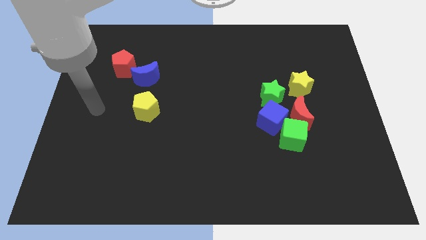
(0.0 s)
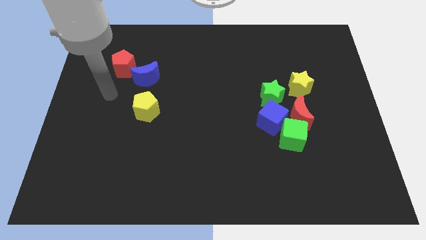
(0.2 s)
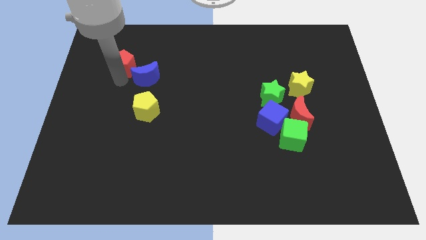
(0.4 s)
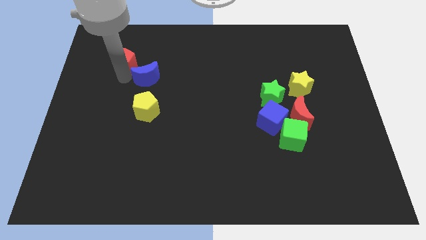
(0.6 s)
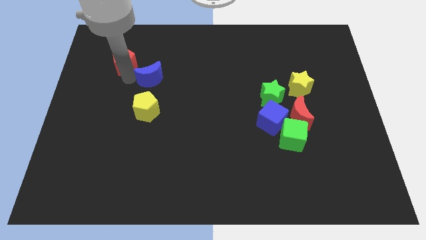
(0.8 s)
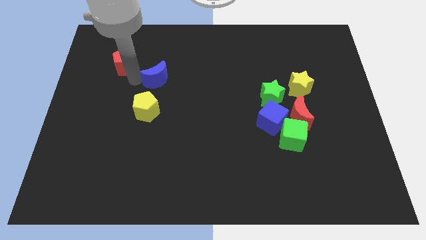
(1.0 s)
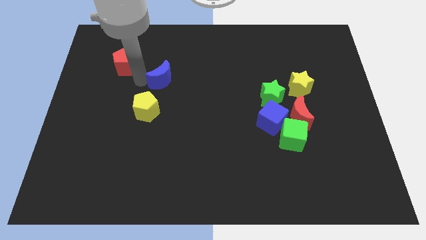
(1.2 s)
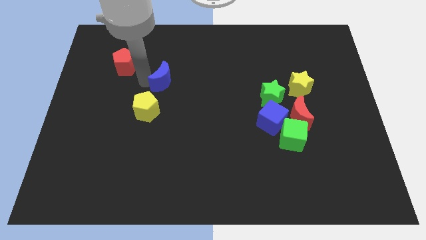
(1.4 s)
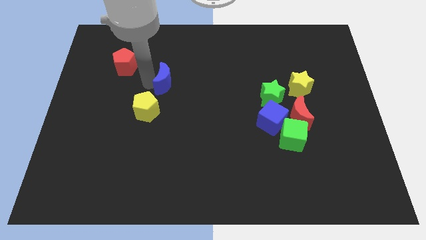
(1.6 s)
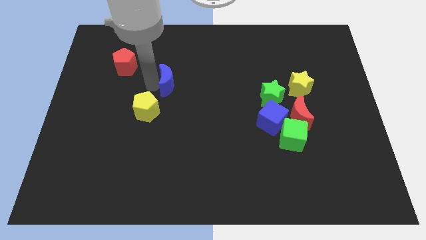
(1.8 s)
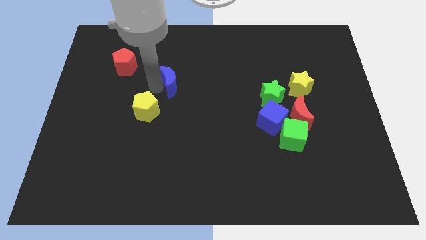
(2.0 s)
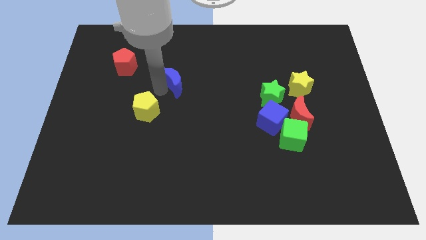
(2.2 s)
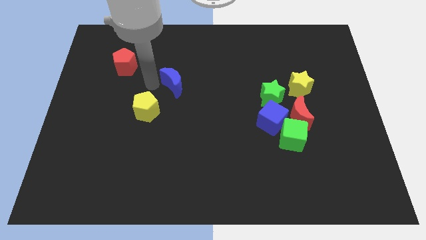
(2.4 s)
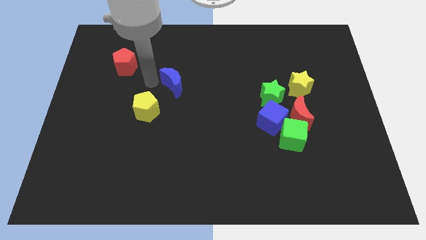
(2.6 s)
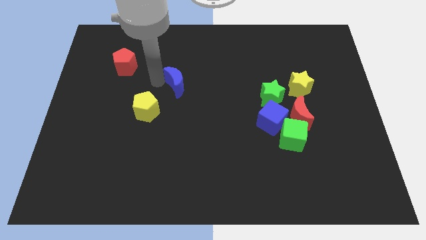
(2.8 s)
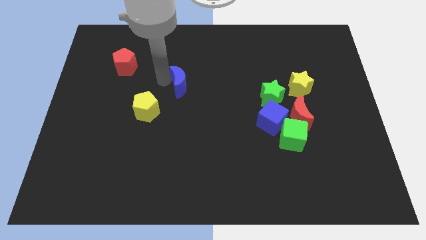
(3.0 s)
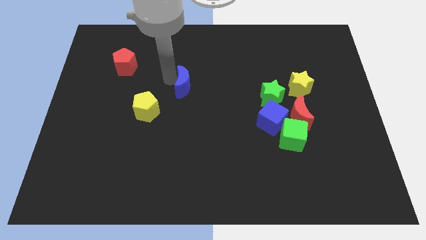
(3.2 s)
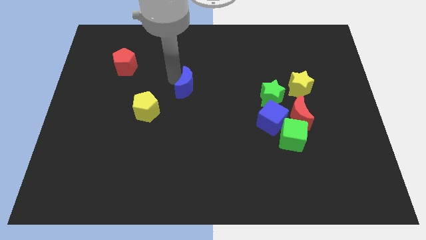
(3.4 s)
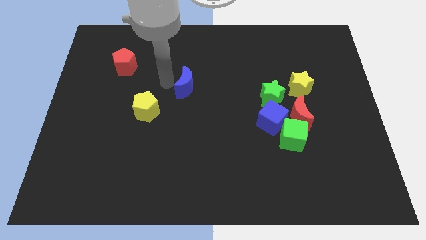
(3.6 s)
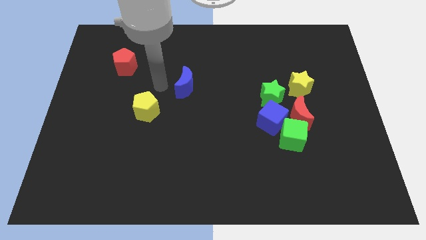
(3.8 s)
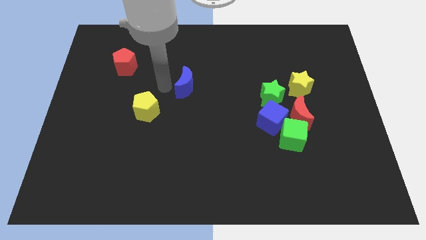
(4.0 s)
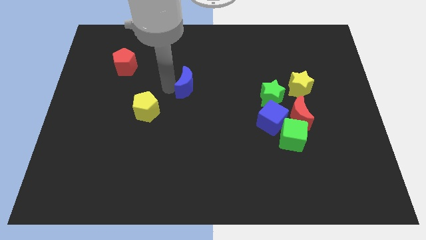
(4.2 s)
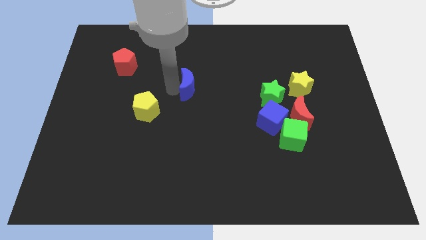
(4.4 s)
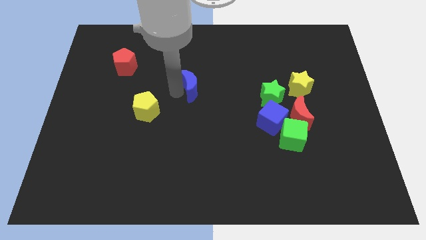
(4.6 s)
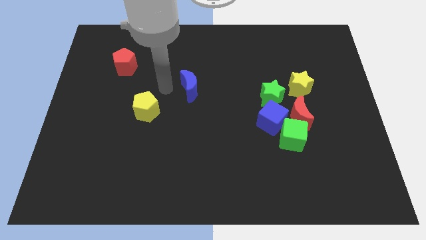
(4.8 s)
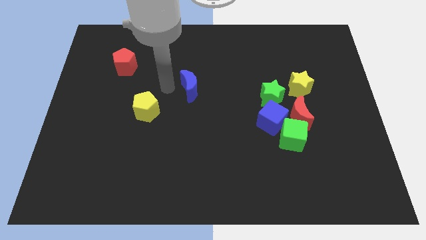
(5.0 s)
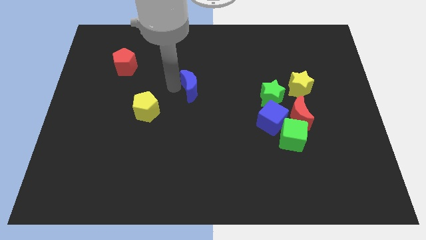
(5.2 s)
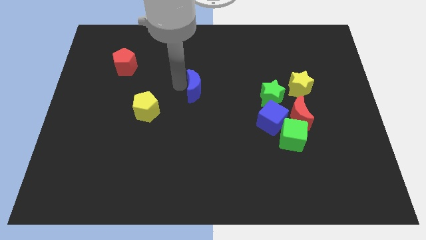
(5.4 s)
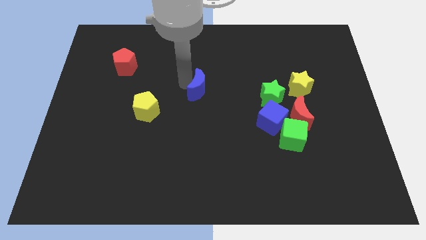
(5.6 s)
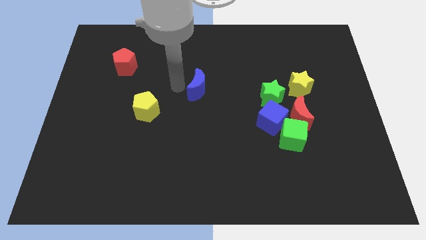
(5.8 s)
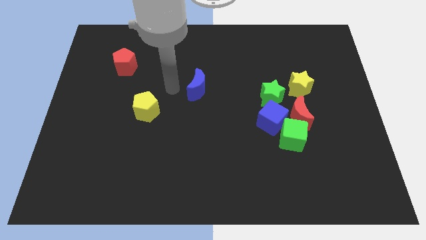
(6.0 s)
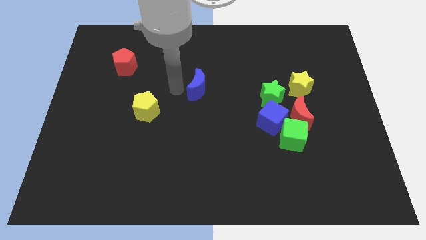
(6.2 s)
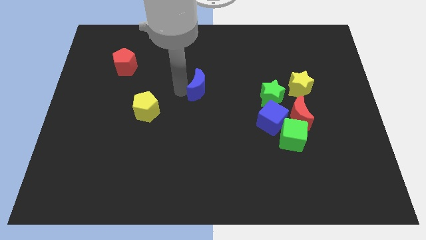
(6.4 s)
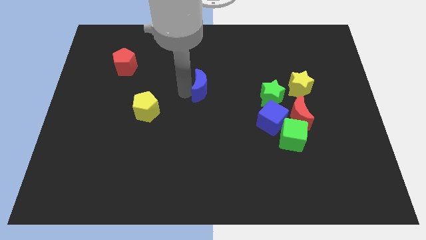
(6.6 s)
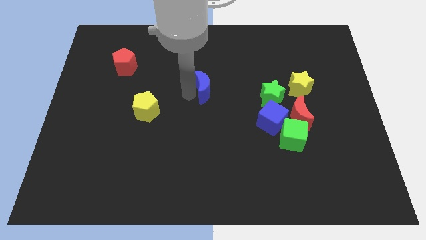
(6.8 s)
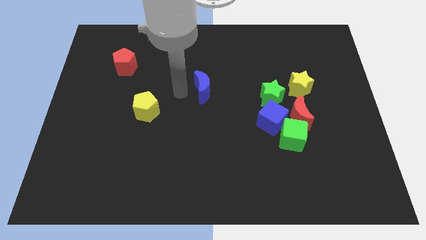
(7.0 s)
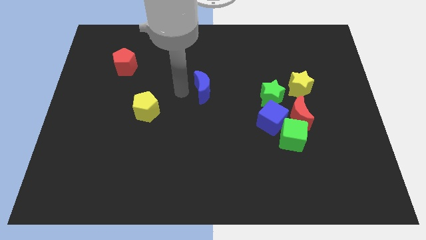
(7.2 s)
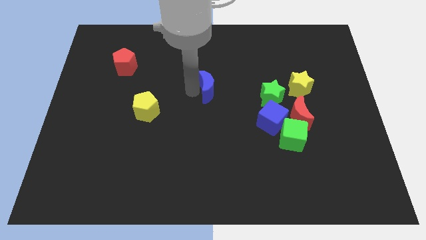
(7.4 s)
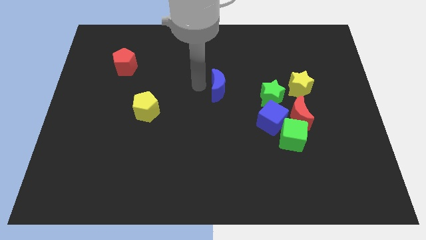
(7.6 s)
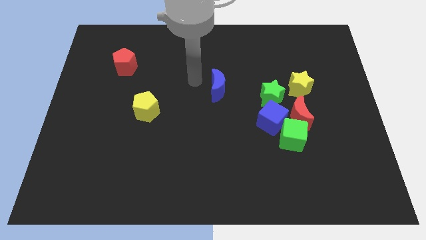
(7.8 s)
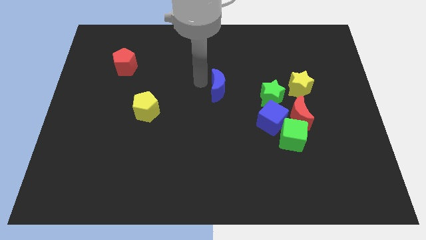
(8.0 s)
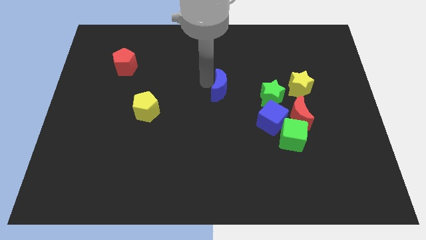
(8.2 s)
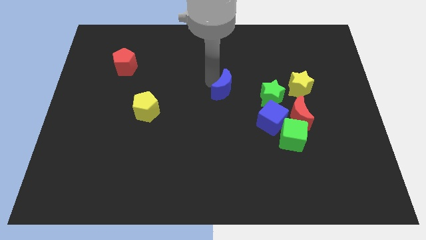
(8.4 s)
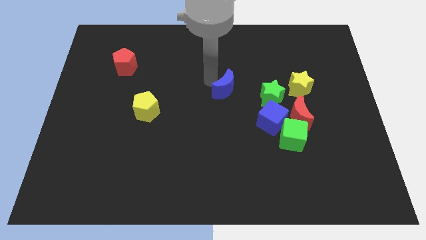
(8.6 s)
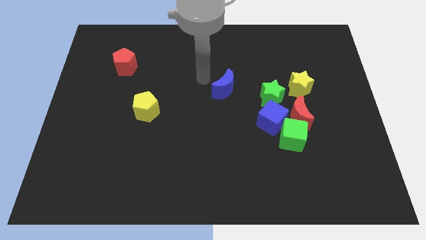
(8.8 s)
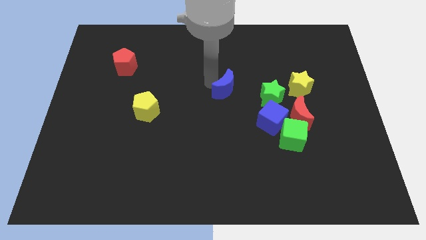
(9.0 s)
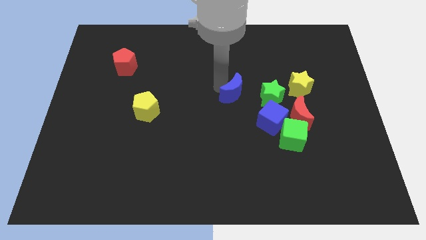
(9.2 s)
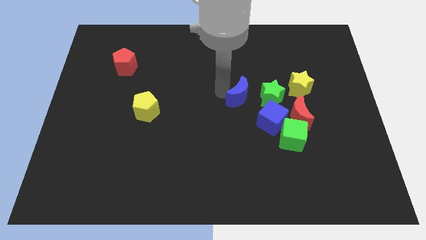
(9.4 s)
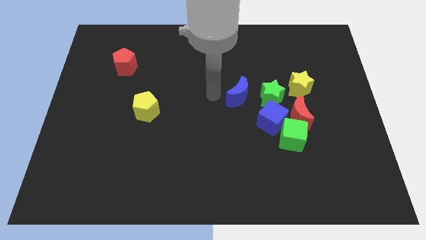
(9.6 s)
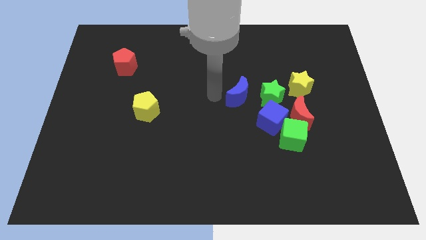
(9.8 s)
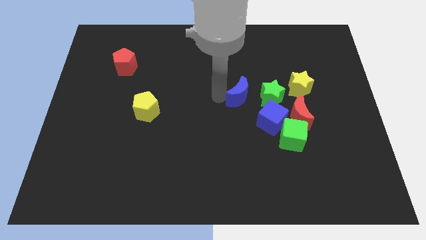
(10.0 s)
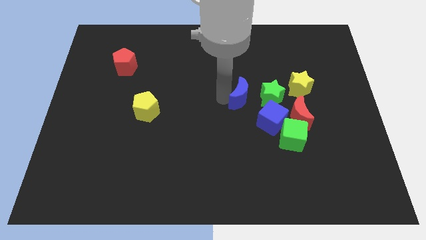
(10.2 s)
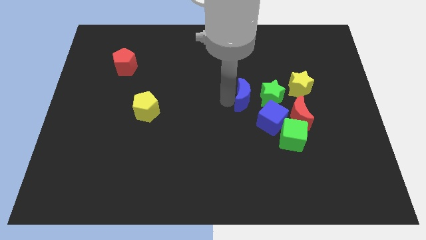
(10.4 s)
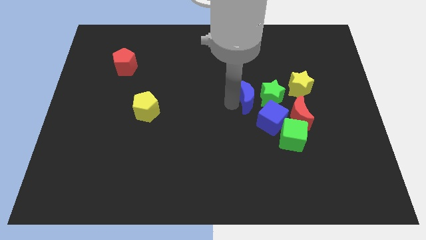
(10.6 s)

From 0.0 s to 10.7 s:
move the blue moon close to the green star

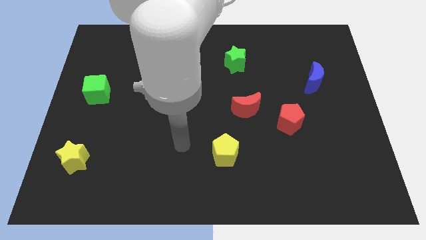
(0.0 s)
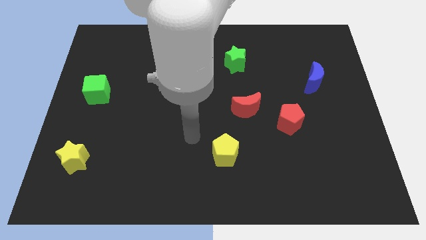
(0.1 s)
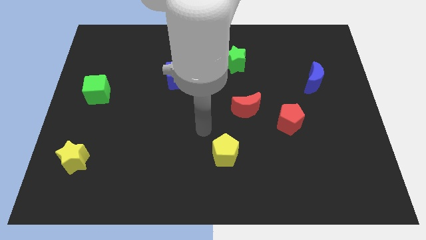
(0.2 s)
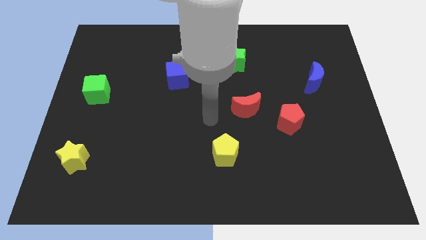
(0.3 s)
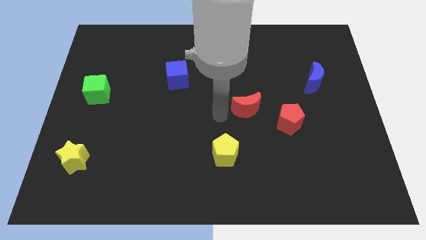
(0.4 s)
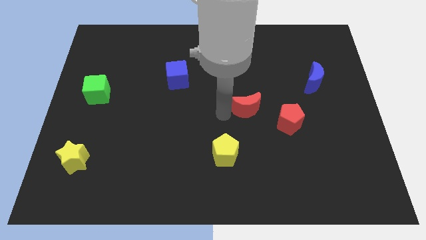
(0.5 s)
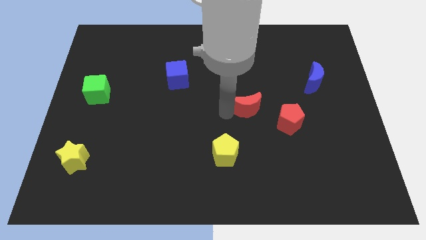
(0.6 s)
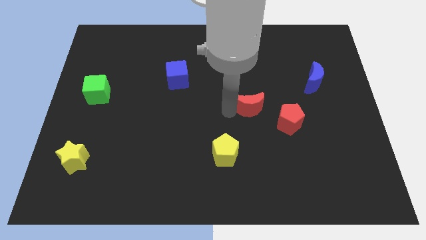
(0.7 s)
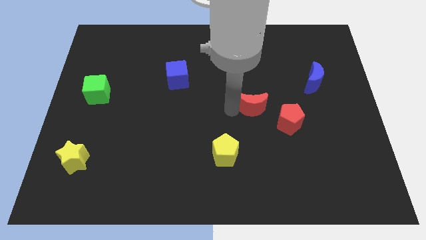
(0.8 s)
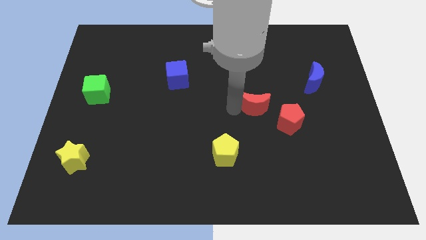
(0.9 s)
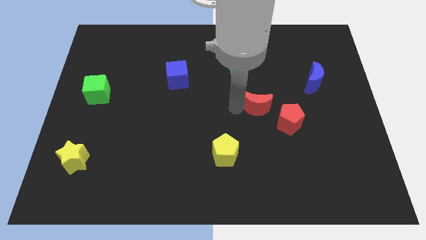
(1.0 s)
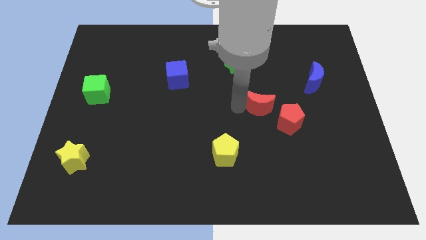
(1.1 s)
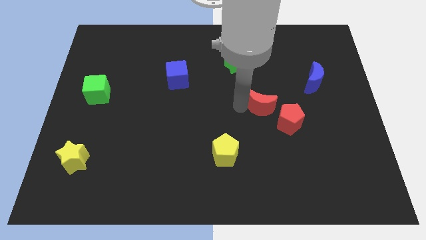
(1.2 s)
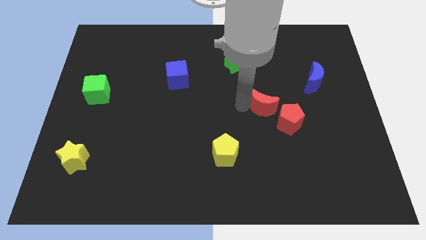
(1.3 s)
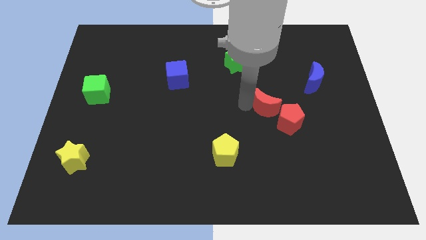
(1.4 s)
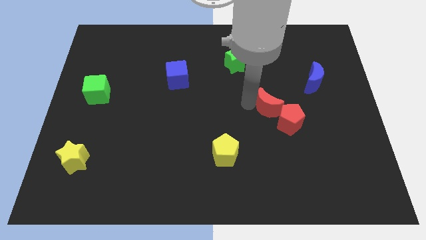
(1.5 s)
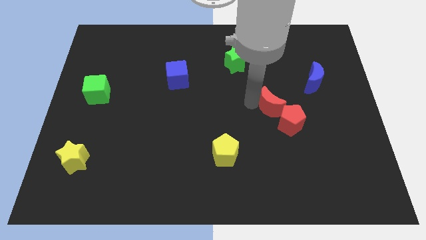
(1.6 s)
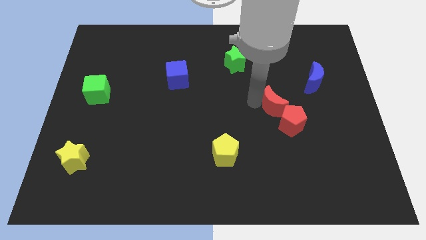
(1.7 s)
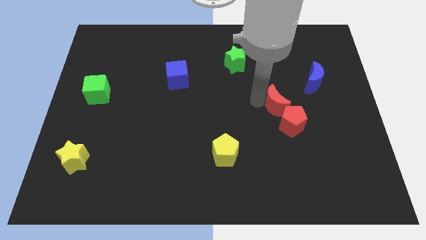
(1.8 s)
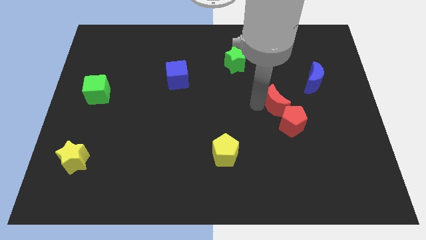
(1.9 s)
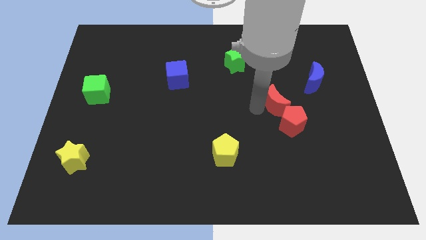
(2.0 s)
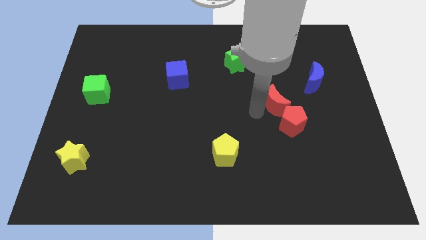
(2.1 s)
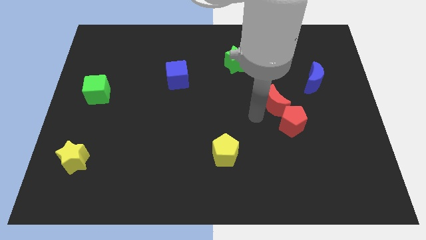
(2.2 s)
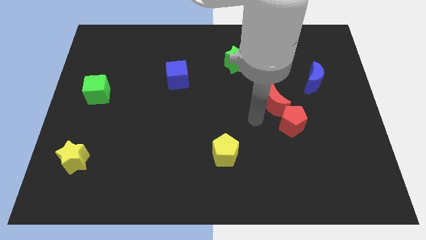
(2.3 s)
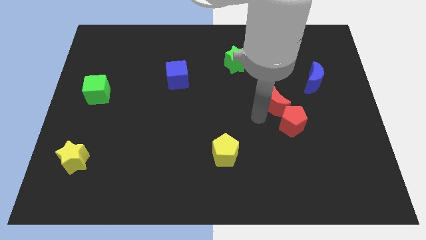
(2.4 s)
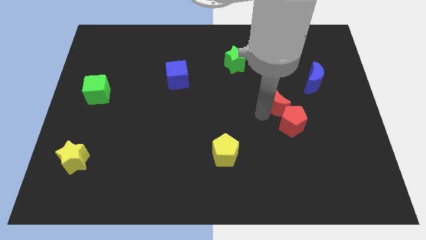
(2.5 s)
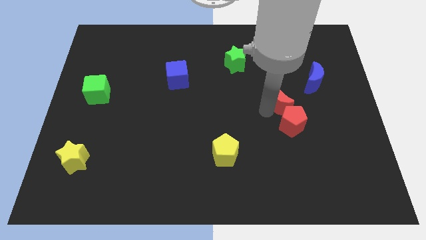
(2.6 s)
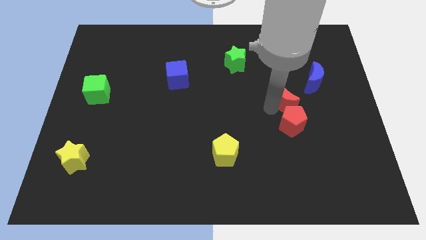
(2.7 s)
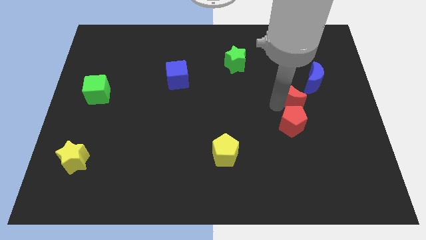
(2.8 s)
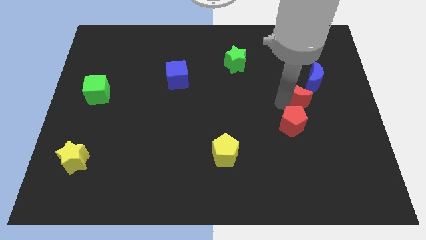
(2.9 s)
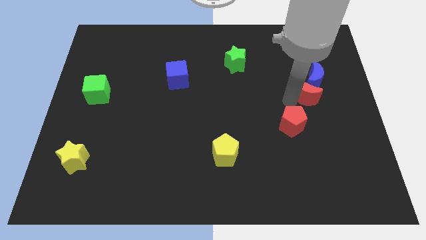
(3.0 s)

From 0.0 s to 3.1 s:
slide the red moon to the blue moon
